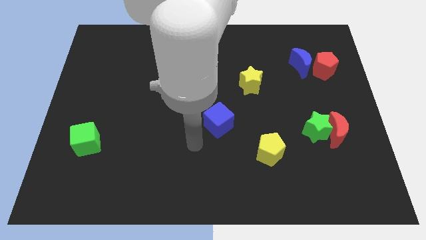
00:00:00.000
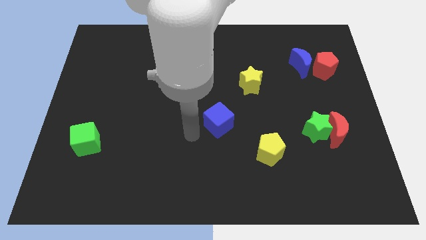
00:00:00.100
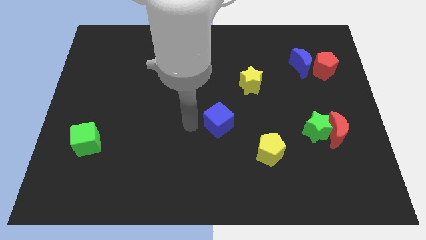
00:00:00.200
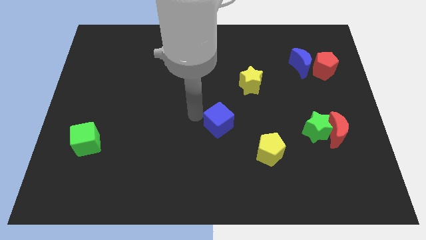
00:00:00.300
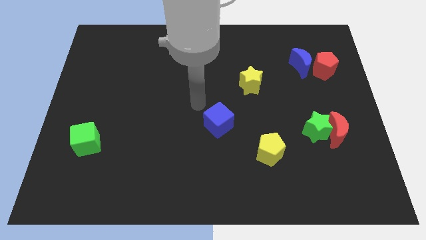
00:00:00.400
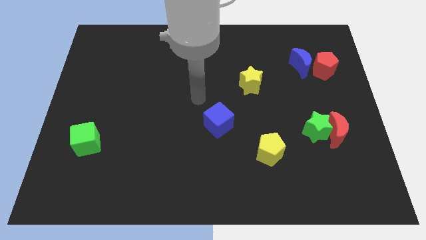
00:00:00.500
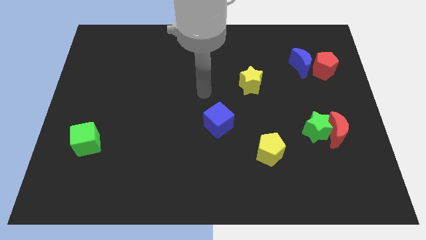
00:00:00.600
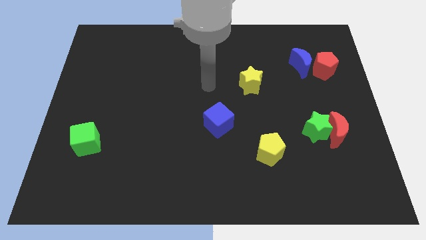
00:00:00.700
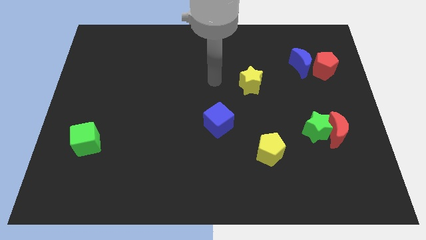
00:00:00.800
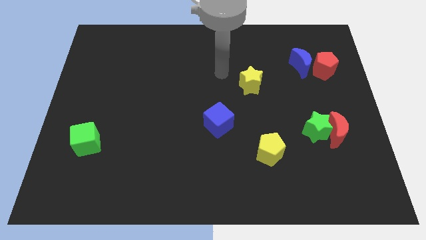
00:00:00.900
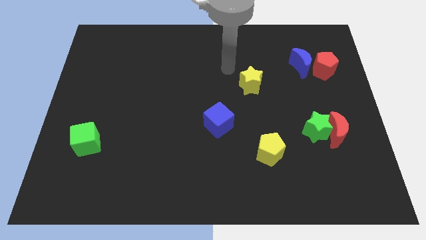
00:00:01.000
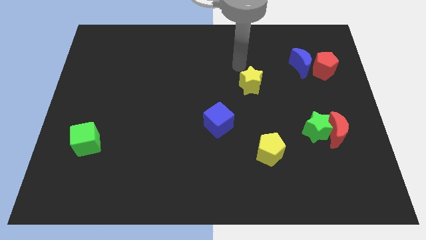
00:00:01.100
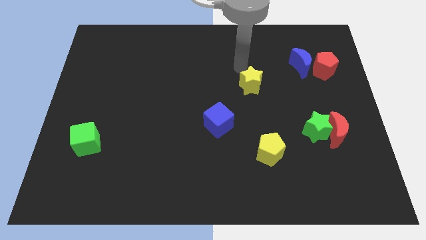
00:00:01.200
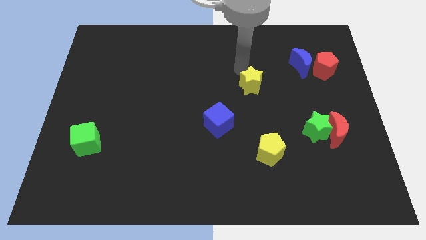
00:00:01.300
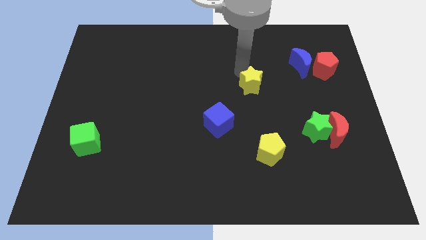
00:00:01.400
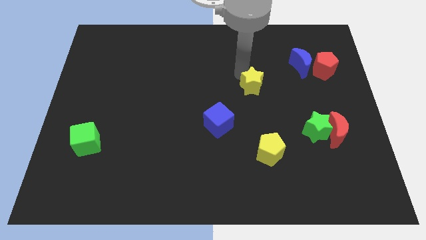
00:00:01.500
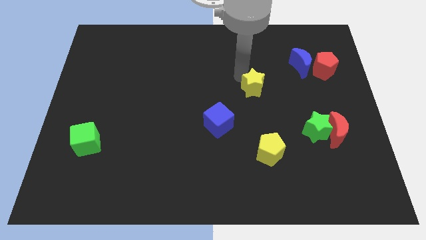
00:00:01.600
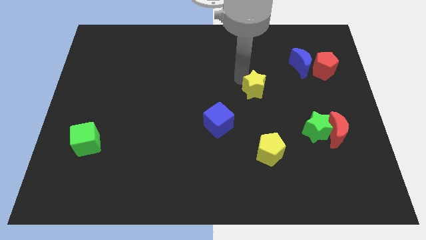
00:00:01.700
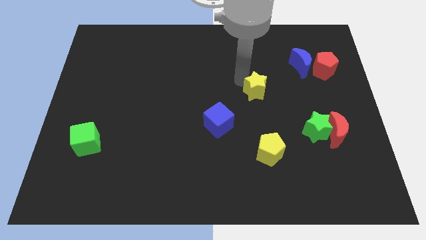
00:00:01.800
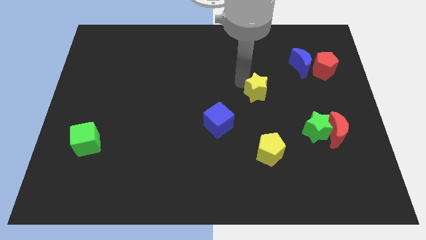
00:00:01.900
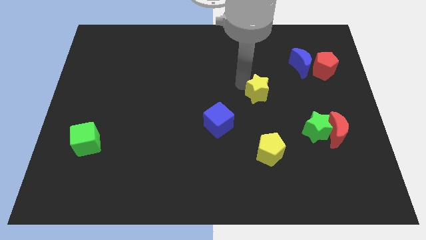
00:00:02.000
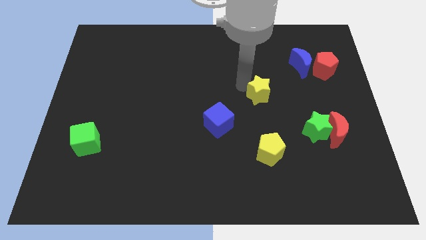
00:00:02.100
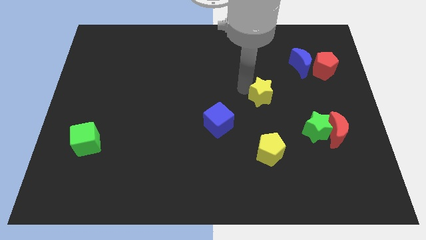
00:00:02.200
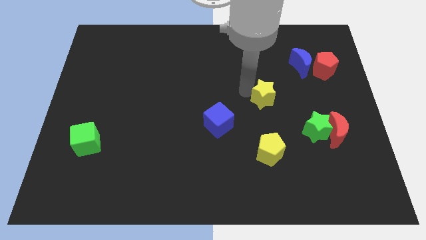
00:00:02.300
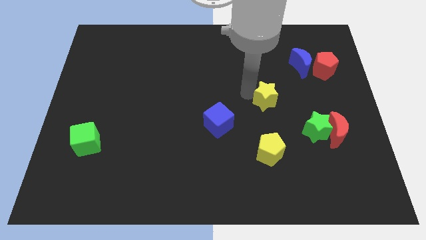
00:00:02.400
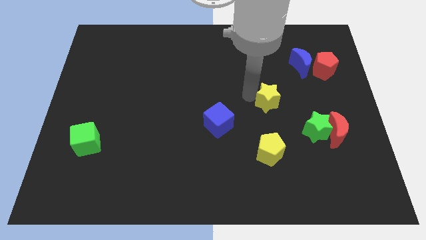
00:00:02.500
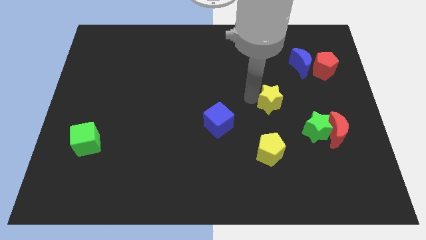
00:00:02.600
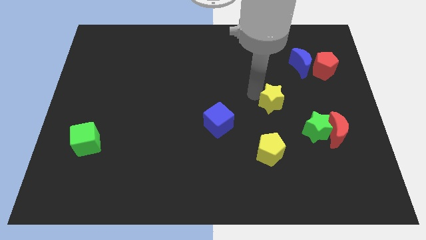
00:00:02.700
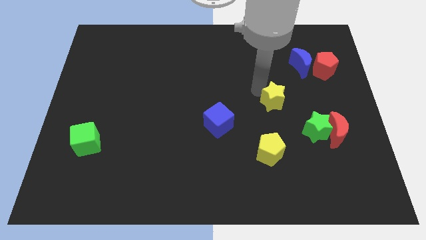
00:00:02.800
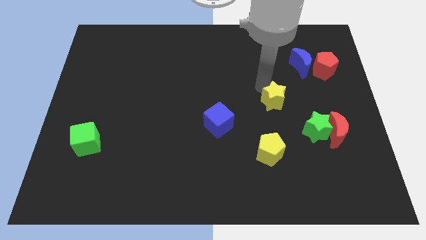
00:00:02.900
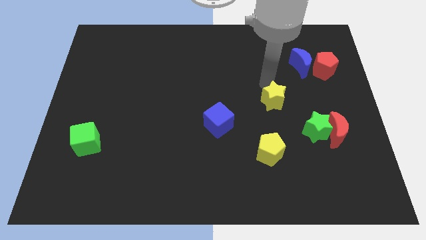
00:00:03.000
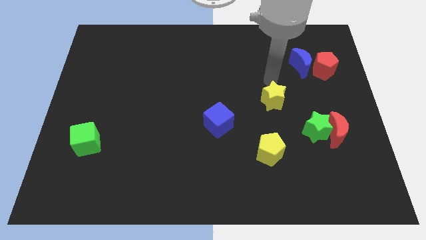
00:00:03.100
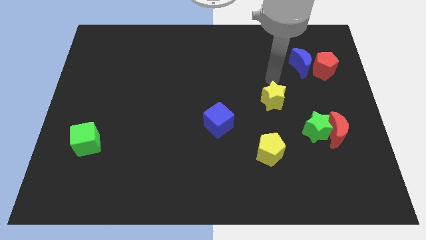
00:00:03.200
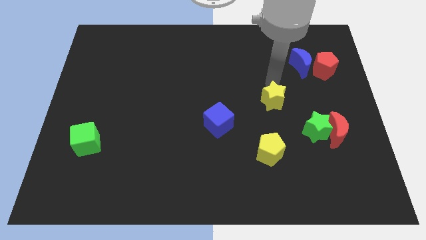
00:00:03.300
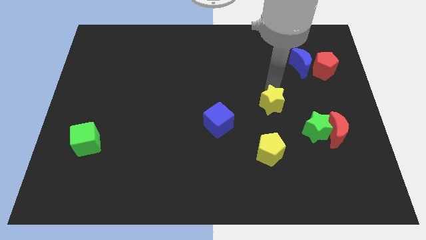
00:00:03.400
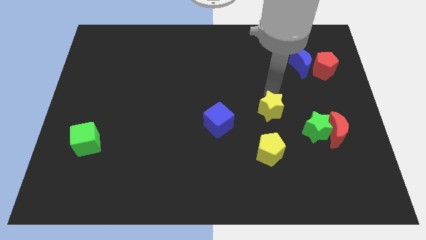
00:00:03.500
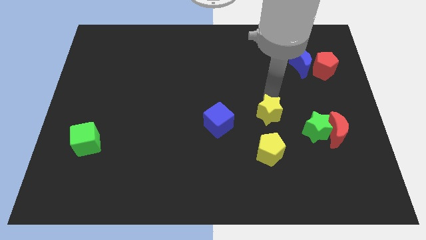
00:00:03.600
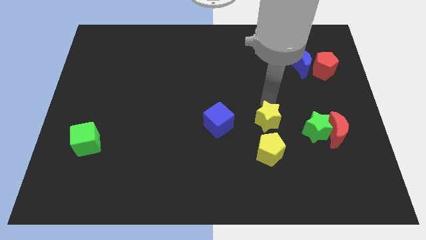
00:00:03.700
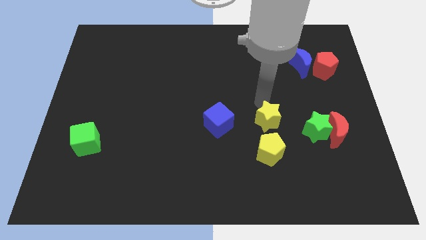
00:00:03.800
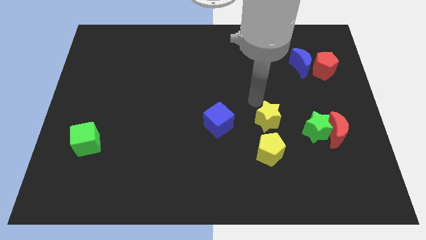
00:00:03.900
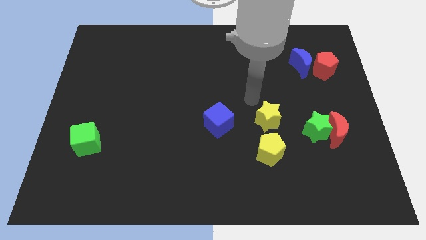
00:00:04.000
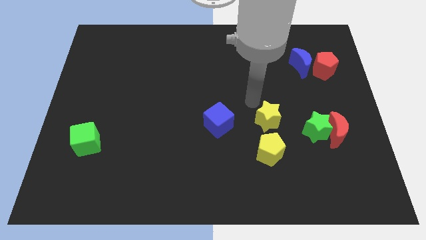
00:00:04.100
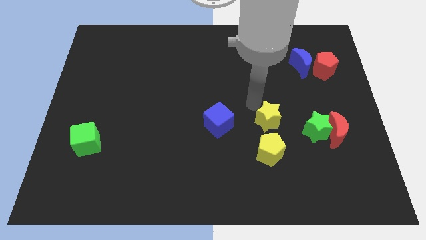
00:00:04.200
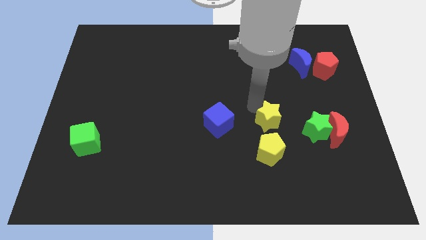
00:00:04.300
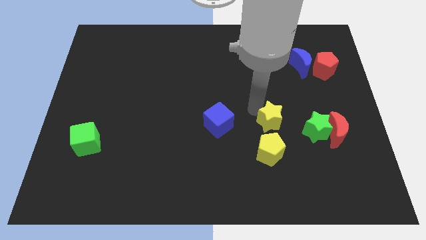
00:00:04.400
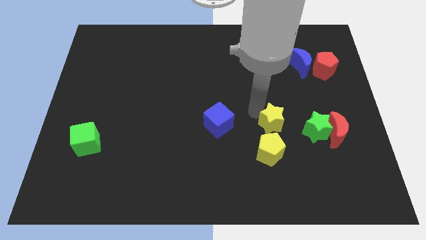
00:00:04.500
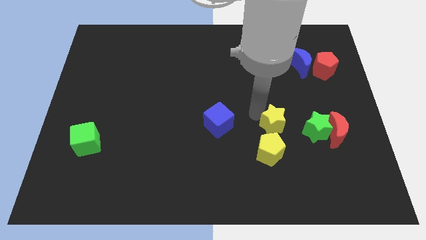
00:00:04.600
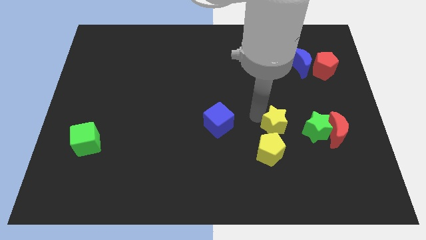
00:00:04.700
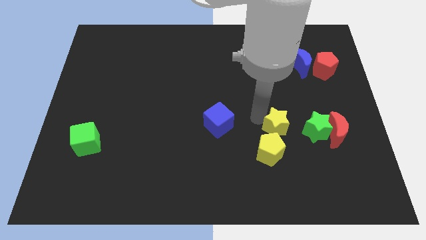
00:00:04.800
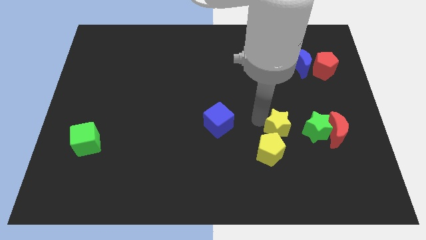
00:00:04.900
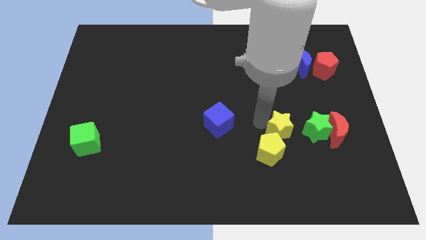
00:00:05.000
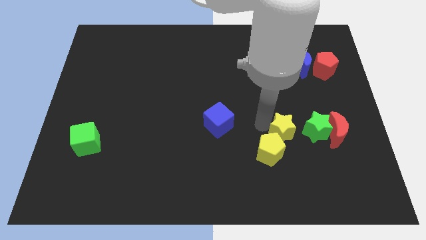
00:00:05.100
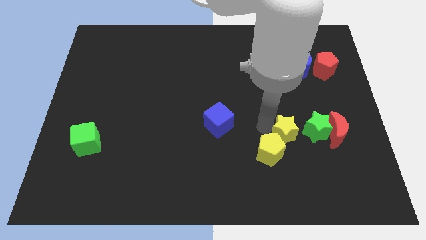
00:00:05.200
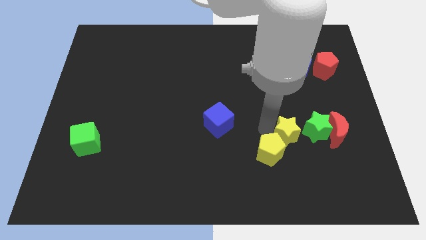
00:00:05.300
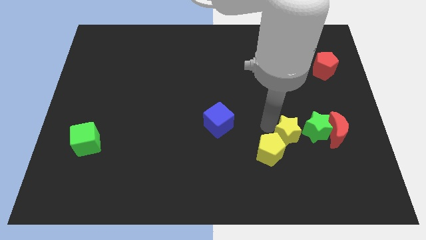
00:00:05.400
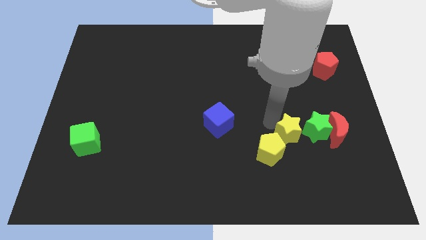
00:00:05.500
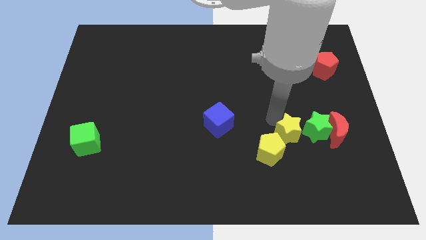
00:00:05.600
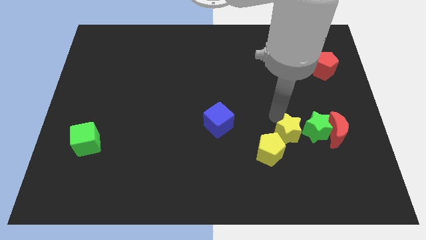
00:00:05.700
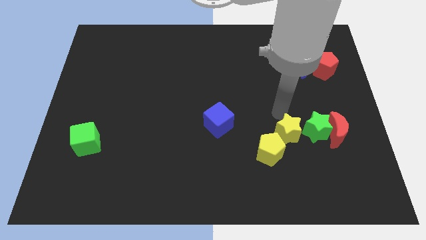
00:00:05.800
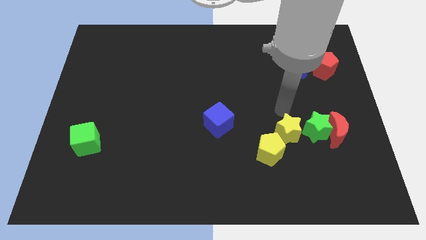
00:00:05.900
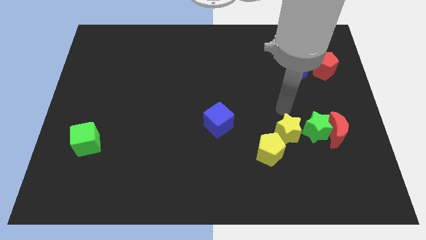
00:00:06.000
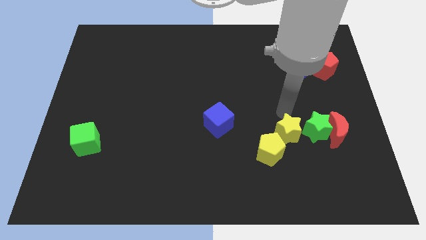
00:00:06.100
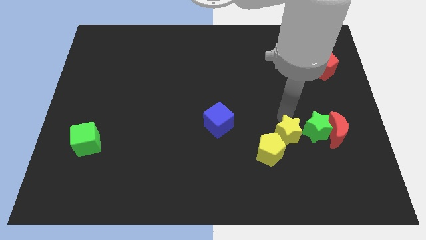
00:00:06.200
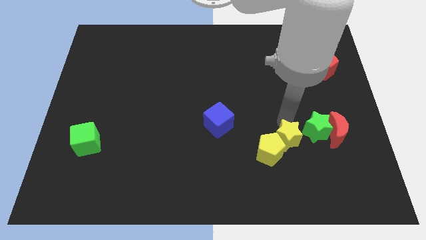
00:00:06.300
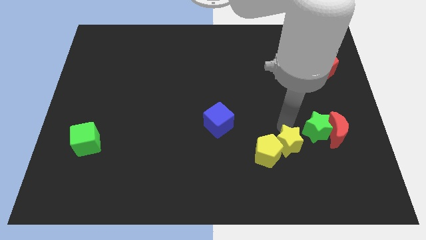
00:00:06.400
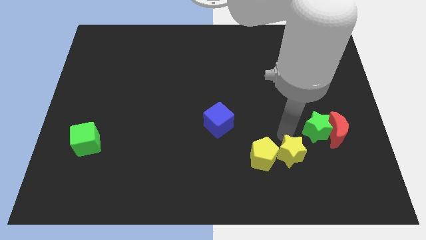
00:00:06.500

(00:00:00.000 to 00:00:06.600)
slide the yellow star to the bottom right side of the yellow pentagon
